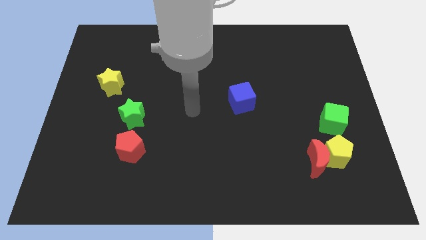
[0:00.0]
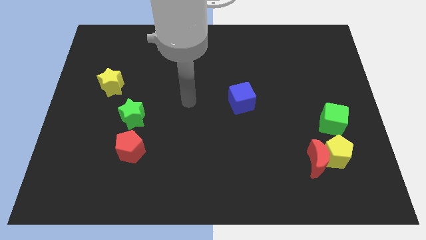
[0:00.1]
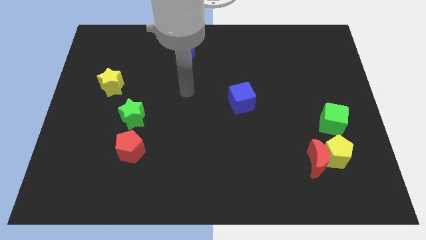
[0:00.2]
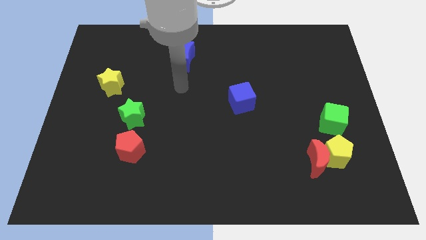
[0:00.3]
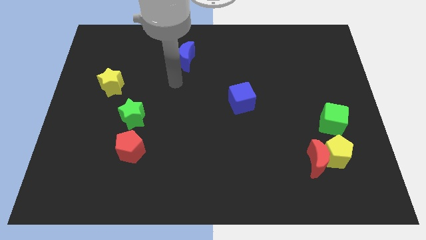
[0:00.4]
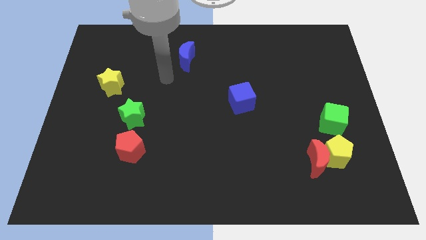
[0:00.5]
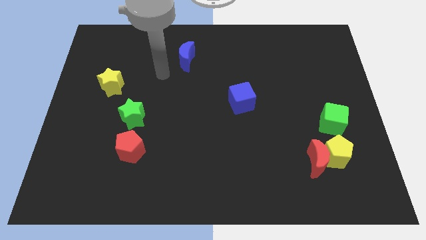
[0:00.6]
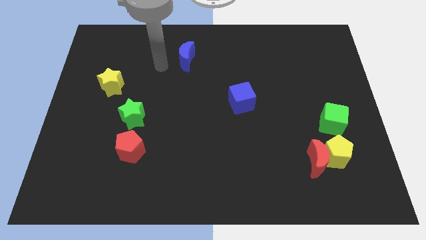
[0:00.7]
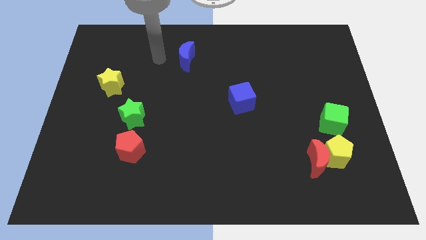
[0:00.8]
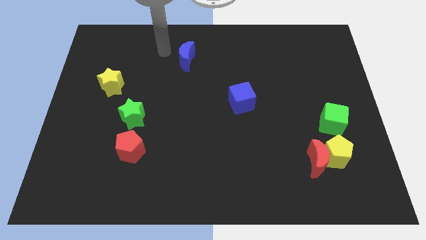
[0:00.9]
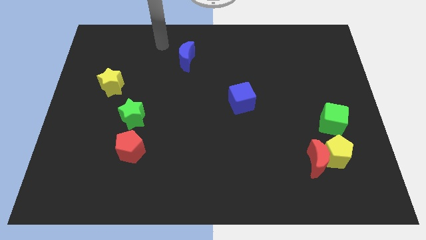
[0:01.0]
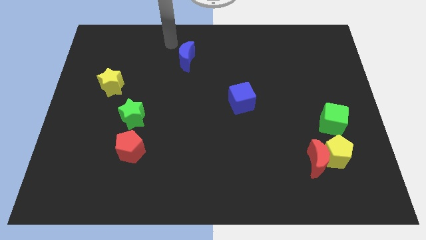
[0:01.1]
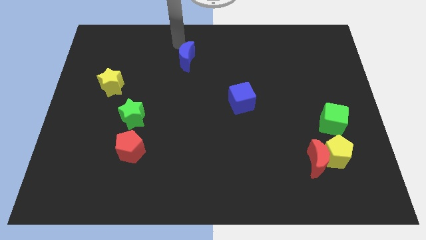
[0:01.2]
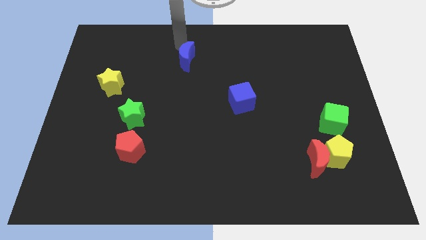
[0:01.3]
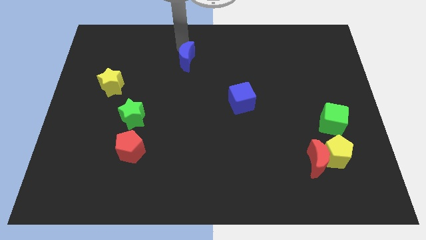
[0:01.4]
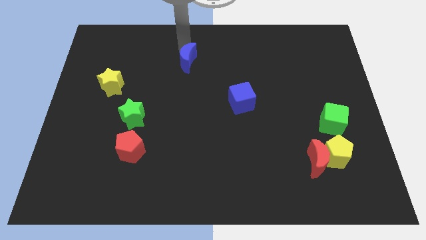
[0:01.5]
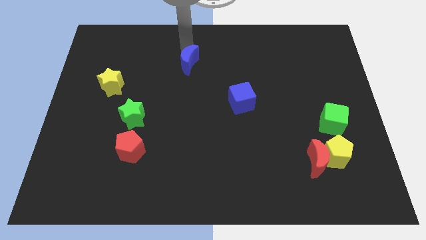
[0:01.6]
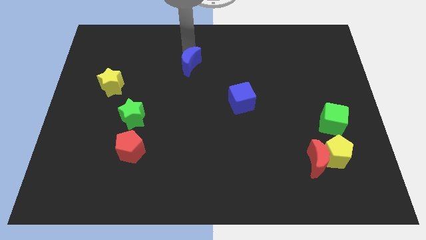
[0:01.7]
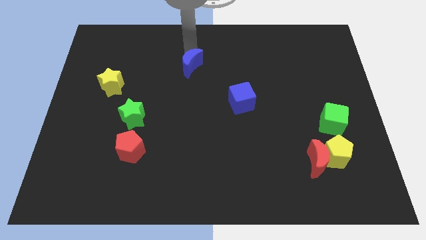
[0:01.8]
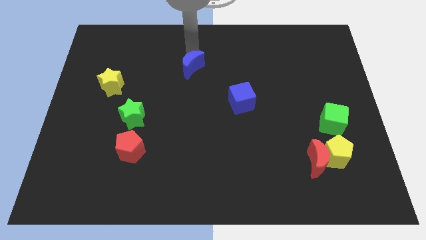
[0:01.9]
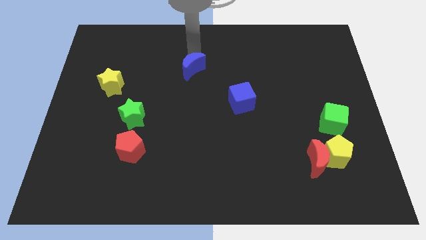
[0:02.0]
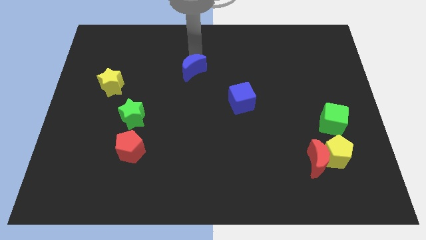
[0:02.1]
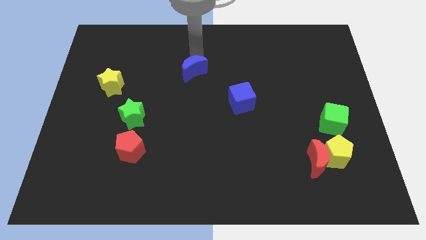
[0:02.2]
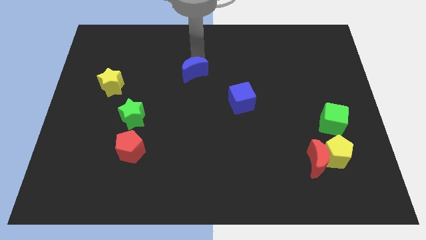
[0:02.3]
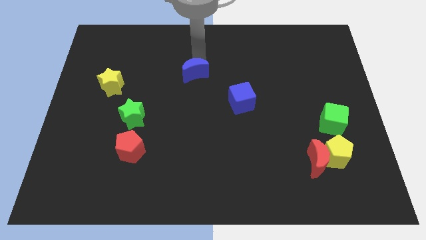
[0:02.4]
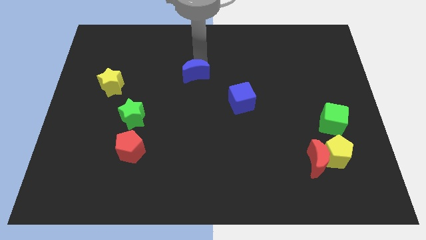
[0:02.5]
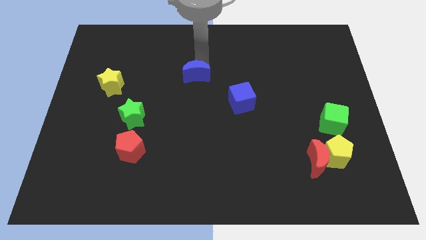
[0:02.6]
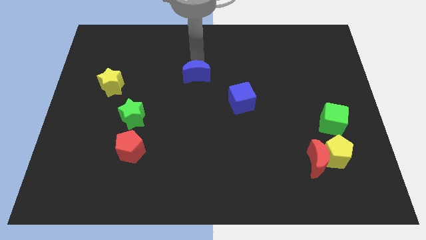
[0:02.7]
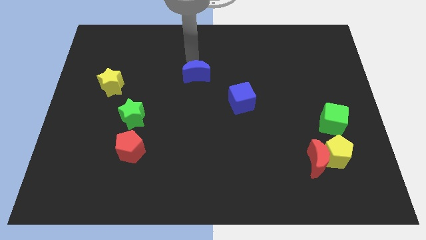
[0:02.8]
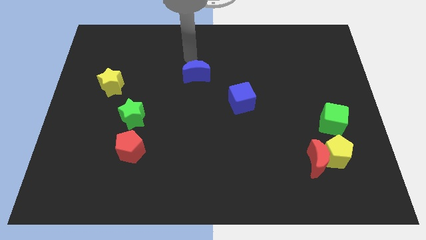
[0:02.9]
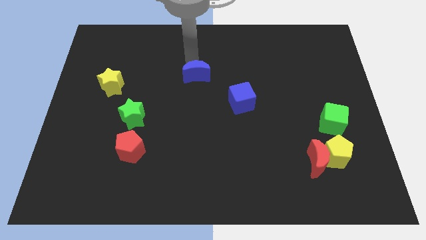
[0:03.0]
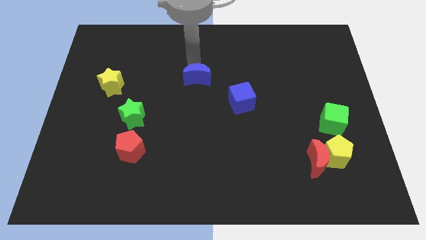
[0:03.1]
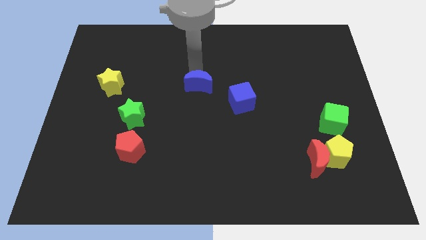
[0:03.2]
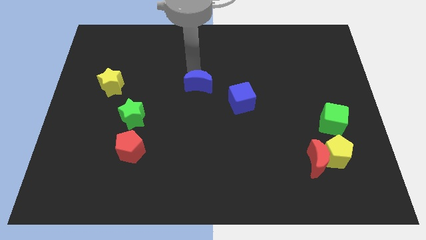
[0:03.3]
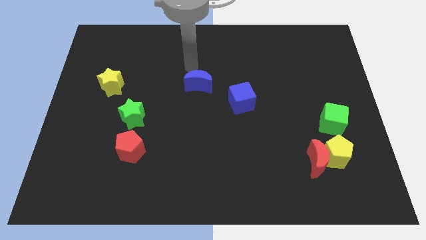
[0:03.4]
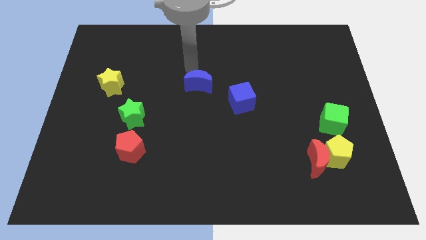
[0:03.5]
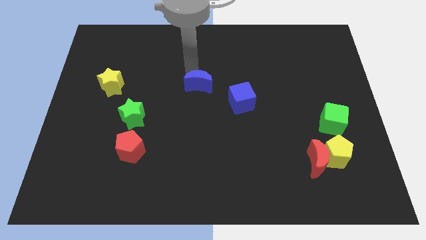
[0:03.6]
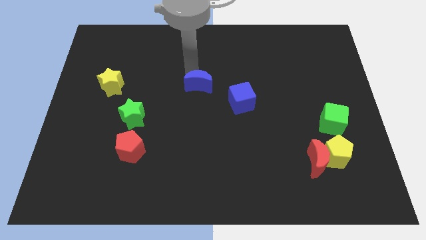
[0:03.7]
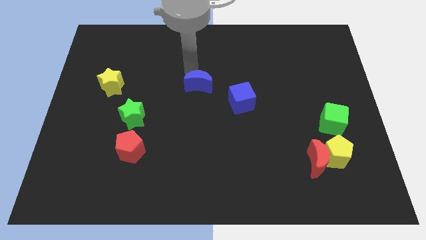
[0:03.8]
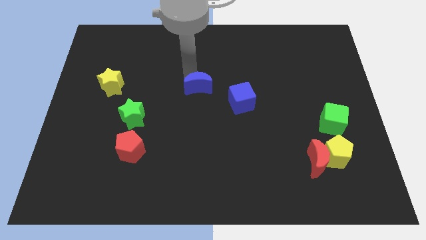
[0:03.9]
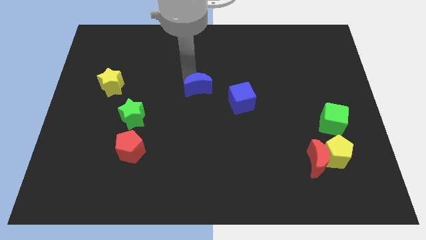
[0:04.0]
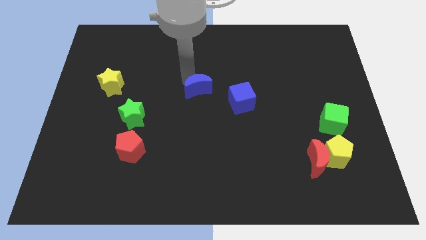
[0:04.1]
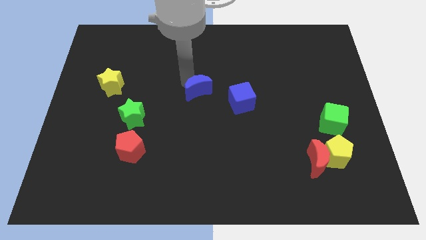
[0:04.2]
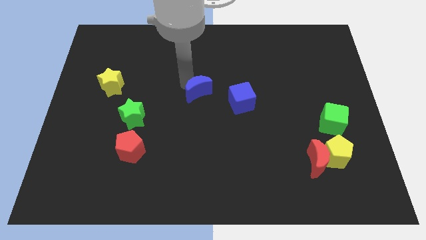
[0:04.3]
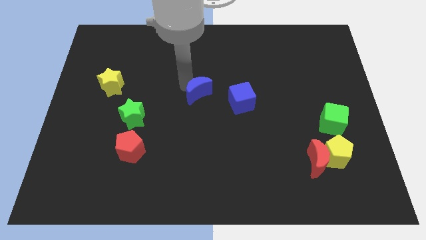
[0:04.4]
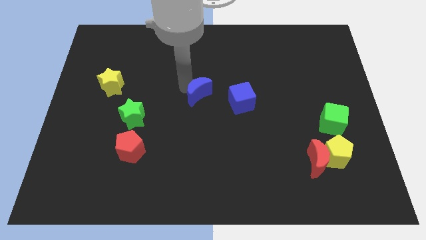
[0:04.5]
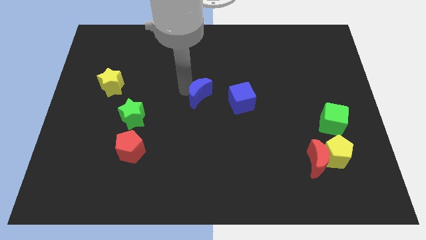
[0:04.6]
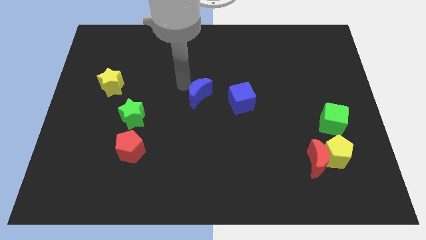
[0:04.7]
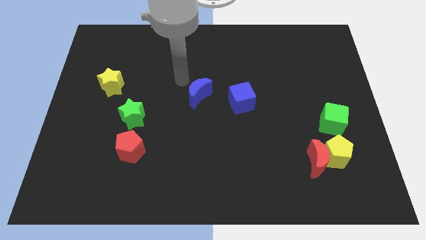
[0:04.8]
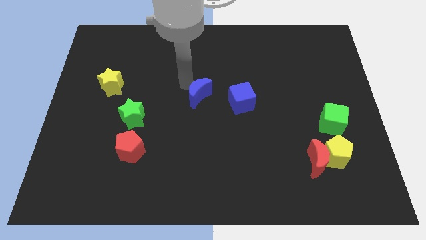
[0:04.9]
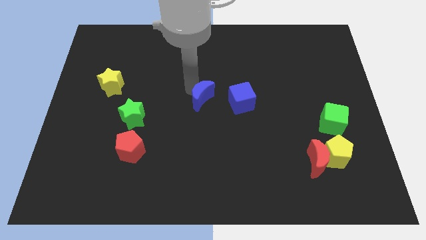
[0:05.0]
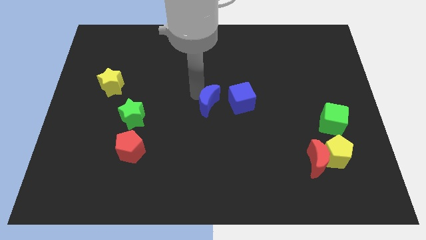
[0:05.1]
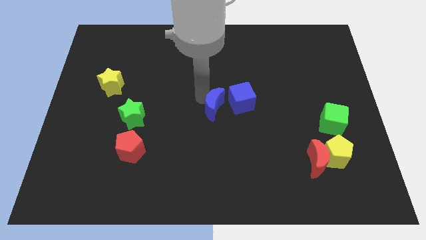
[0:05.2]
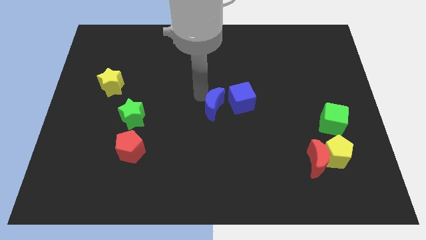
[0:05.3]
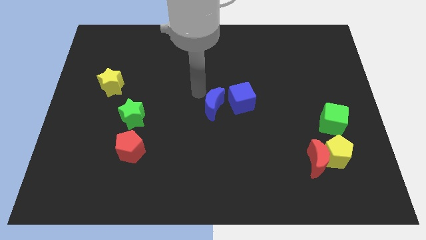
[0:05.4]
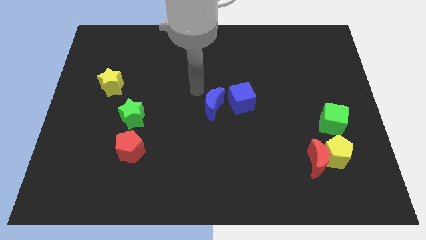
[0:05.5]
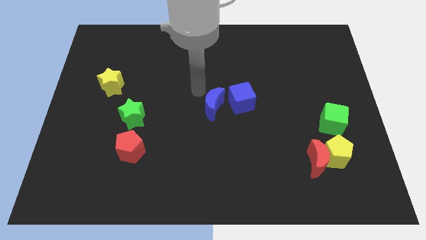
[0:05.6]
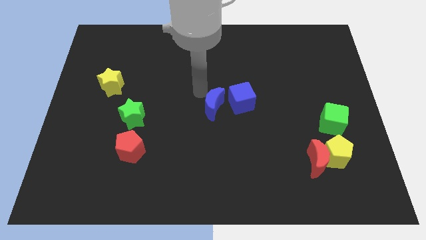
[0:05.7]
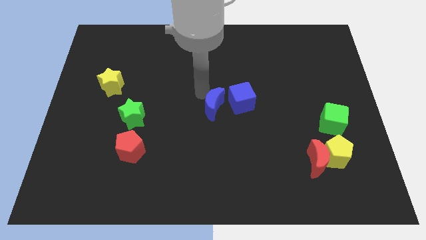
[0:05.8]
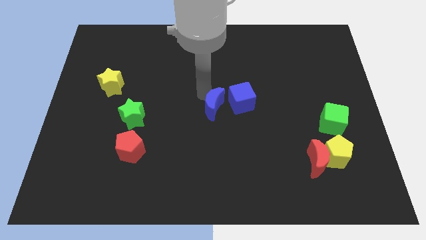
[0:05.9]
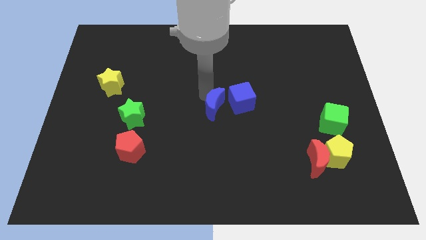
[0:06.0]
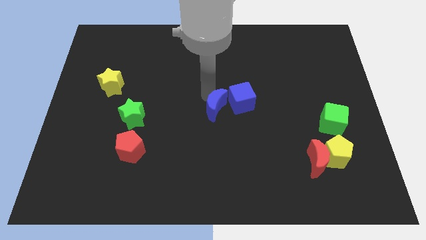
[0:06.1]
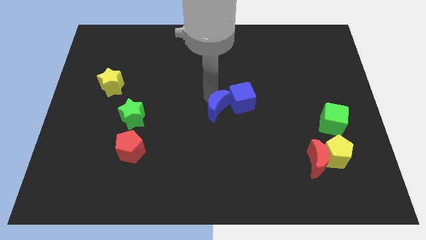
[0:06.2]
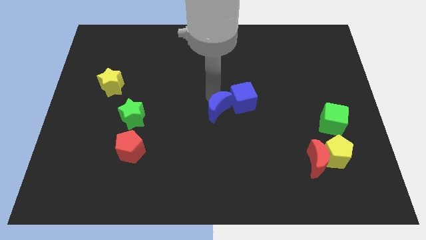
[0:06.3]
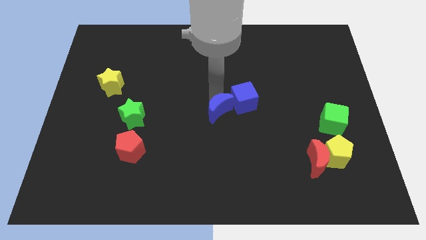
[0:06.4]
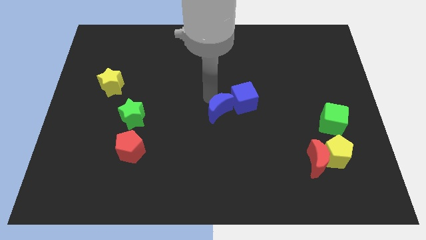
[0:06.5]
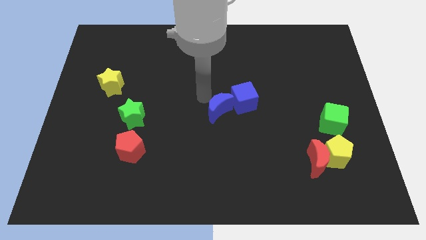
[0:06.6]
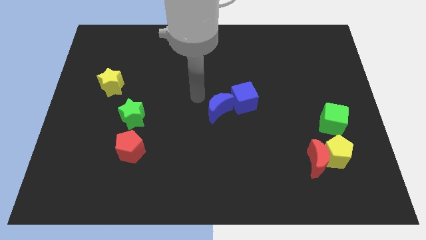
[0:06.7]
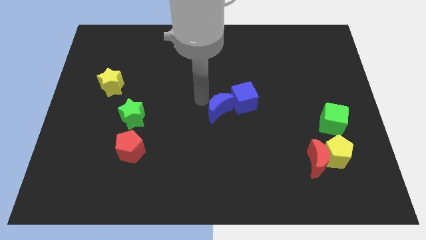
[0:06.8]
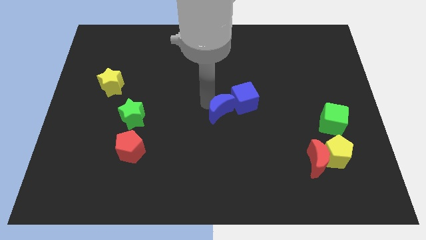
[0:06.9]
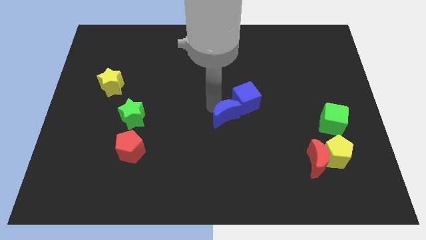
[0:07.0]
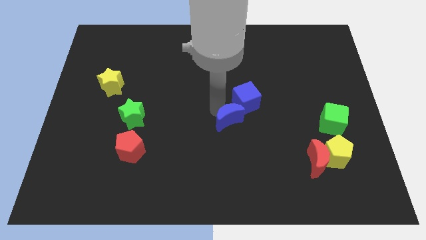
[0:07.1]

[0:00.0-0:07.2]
slide the blue moon diagonally down and right

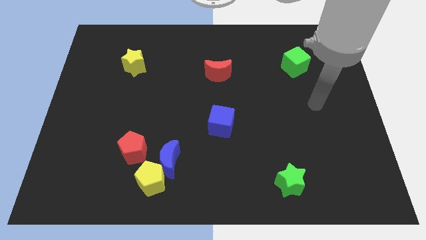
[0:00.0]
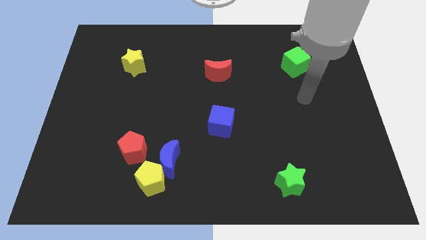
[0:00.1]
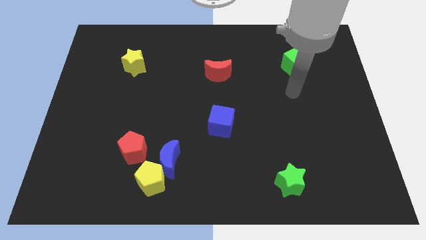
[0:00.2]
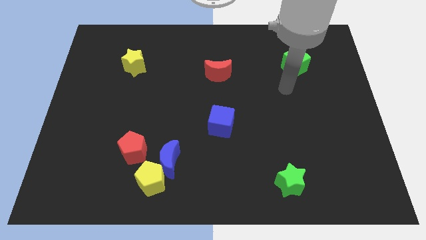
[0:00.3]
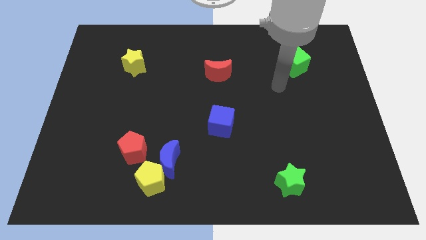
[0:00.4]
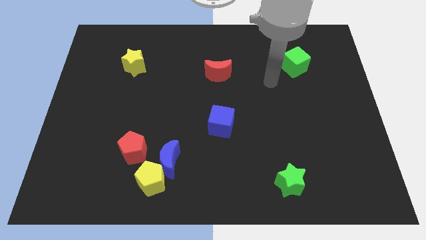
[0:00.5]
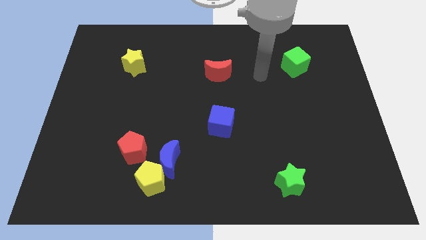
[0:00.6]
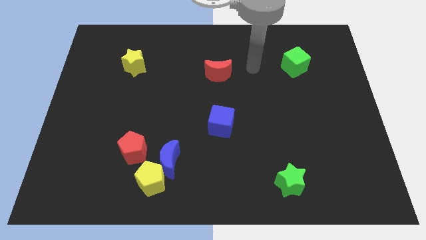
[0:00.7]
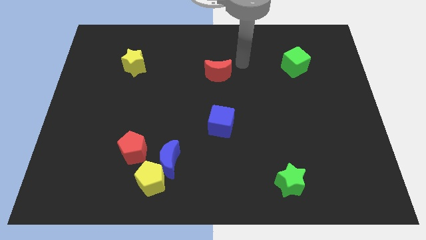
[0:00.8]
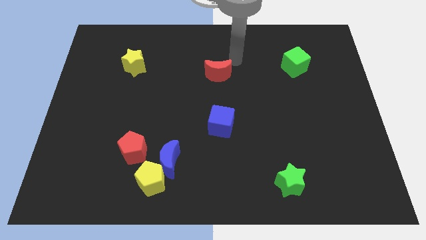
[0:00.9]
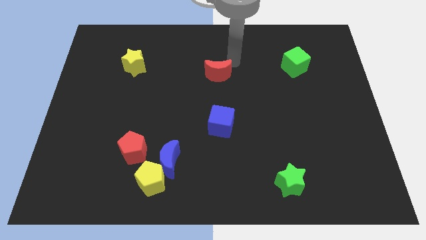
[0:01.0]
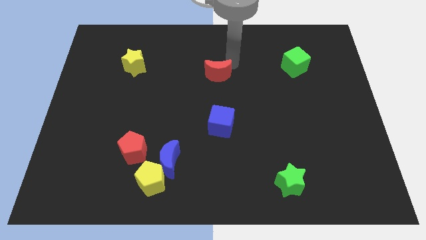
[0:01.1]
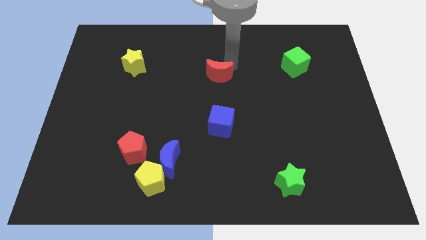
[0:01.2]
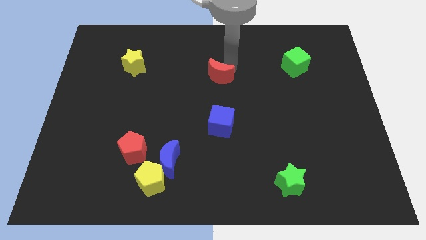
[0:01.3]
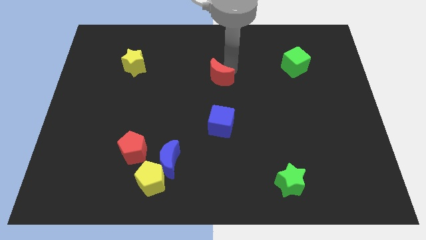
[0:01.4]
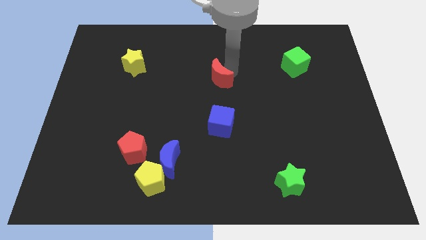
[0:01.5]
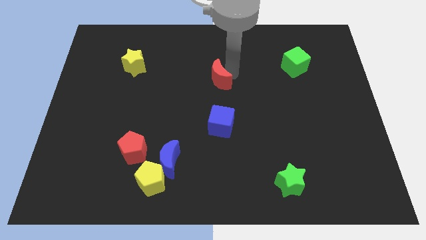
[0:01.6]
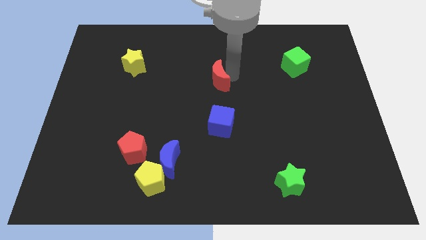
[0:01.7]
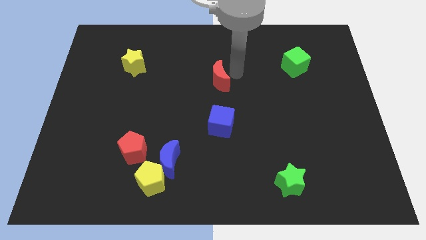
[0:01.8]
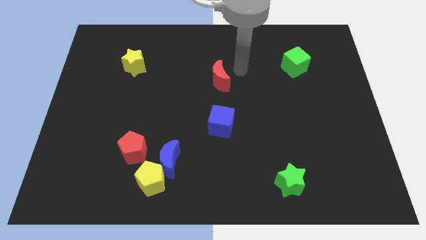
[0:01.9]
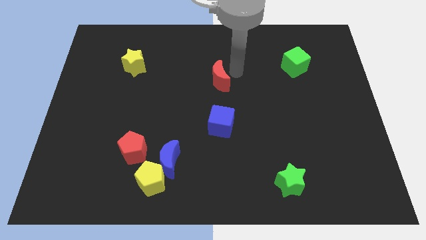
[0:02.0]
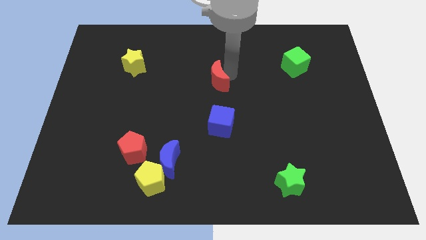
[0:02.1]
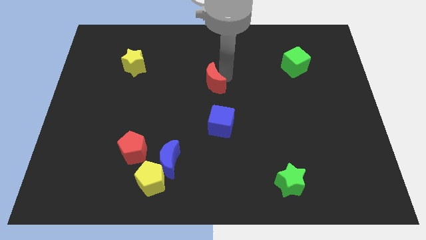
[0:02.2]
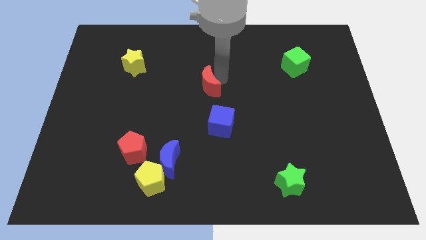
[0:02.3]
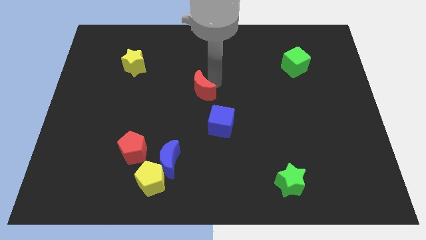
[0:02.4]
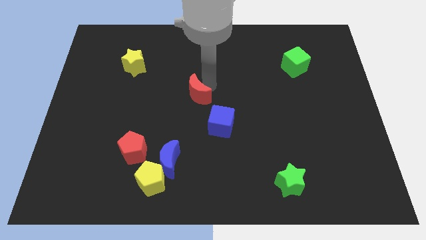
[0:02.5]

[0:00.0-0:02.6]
slightly slide the red moon diagonally downwards and to the left
